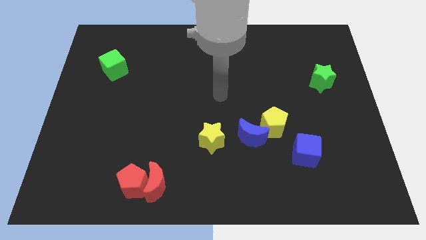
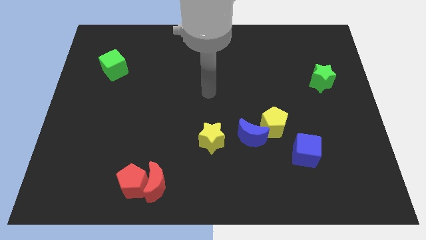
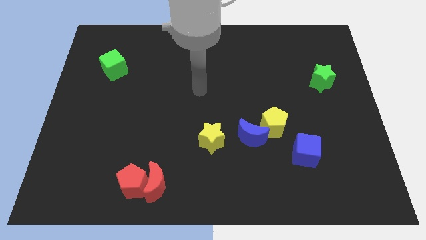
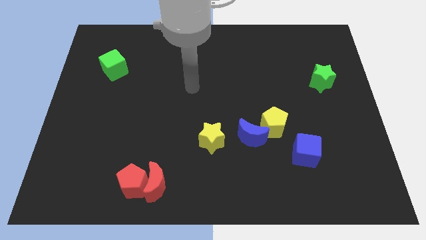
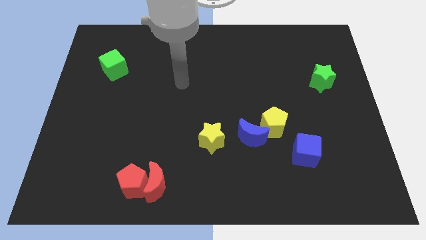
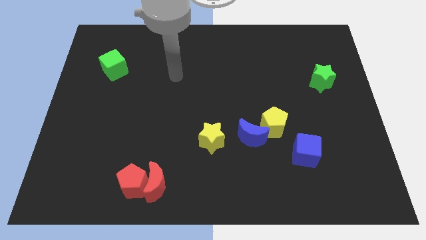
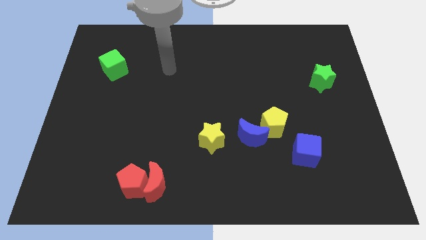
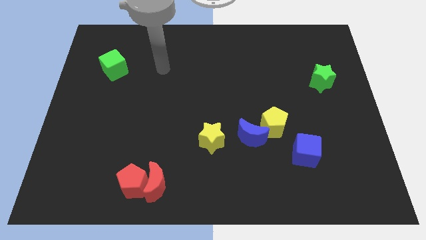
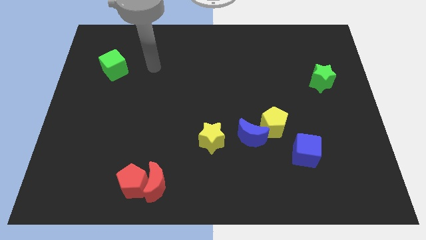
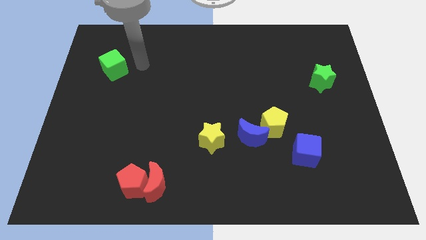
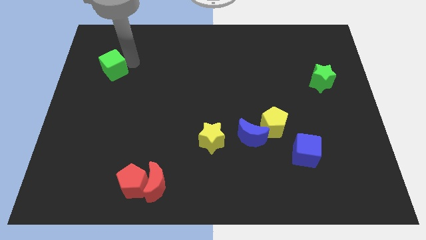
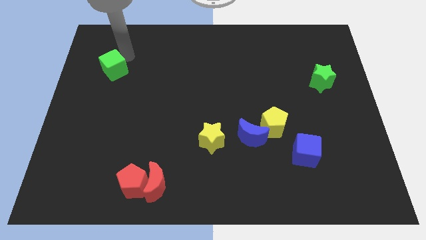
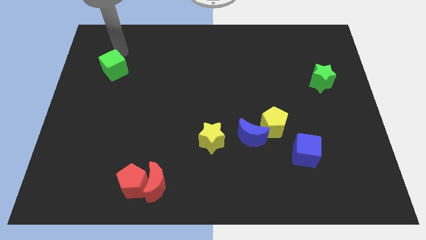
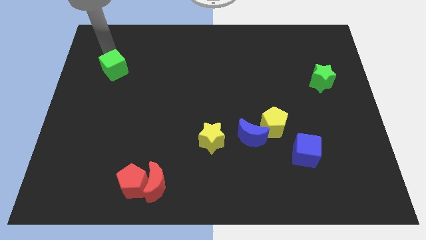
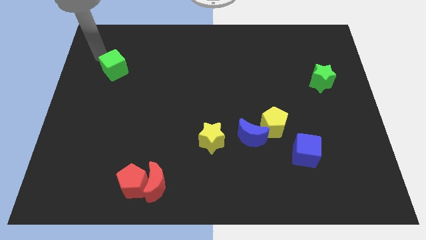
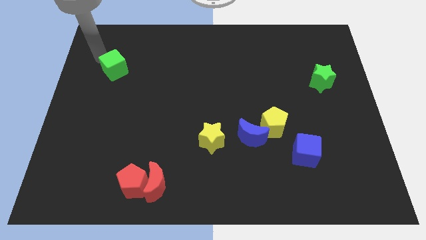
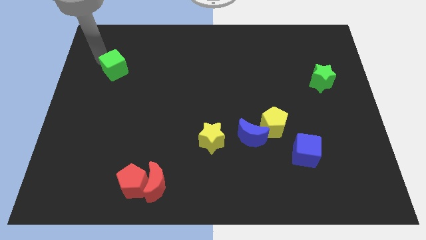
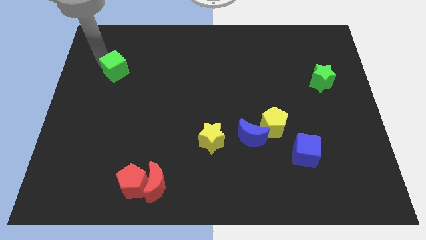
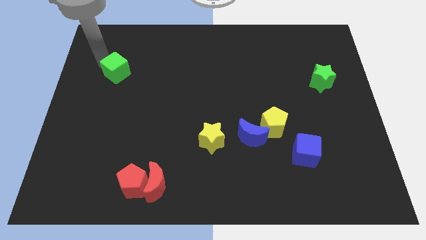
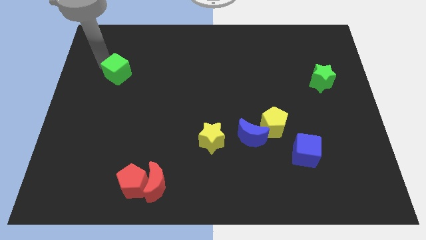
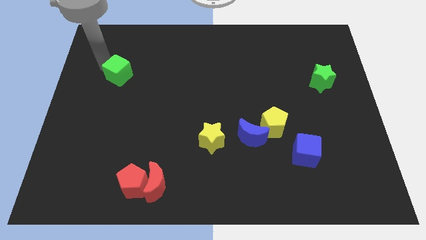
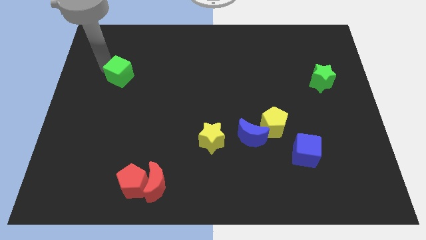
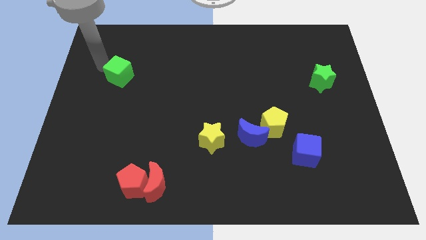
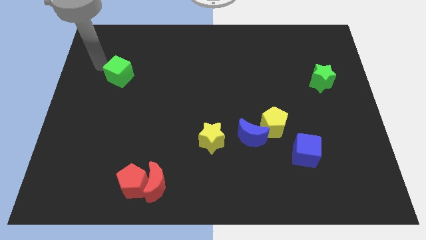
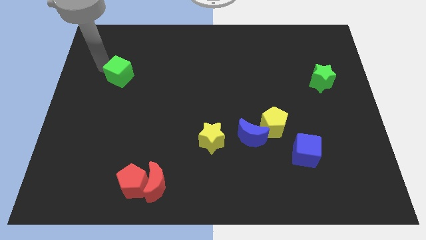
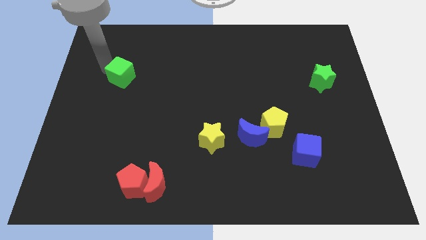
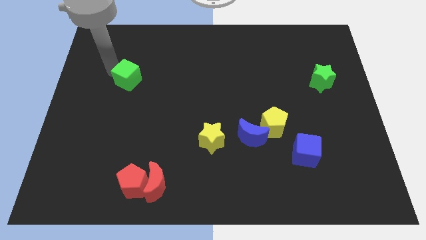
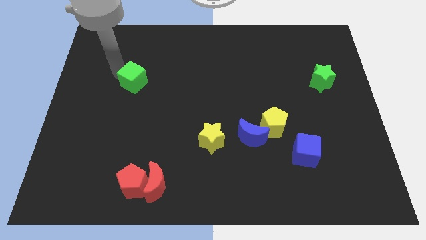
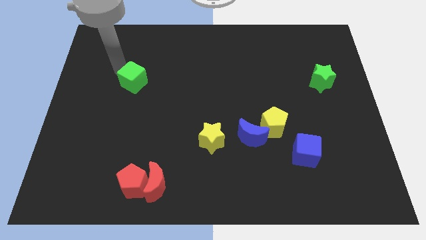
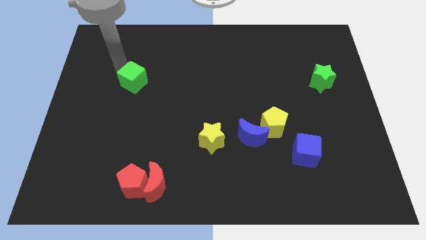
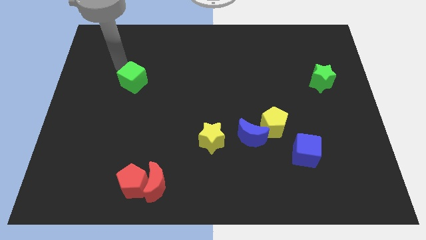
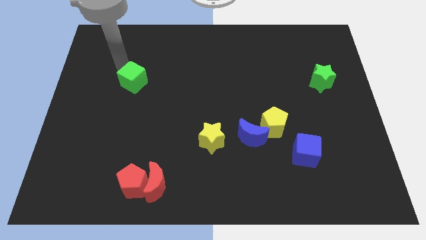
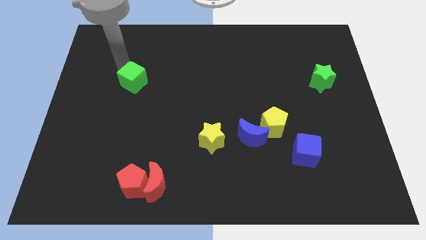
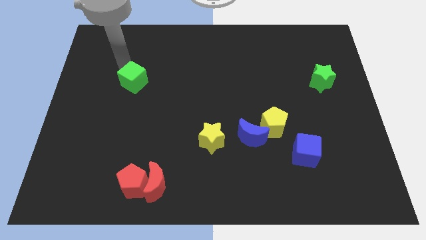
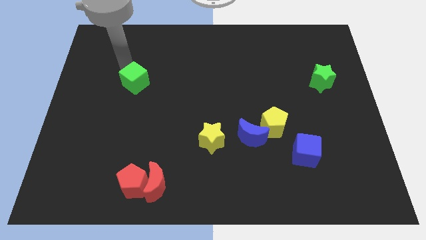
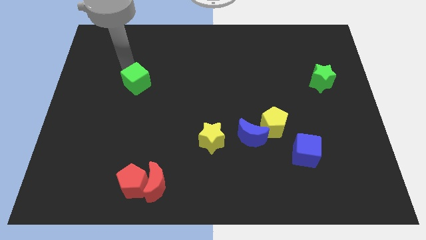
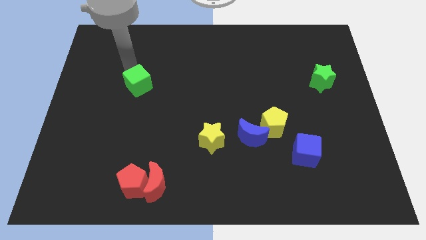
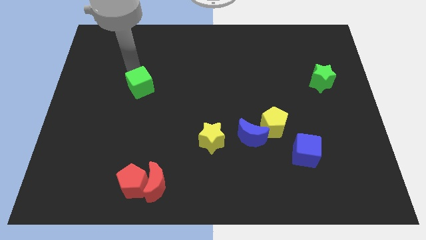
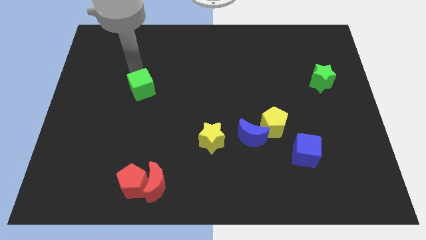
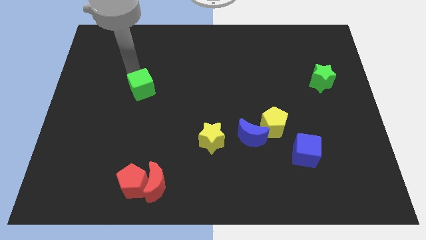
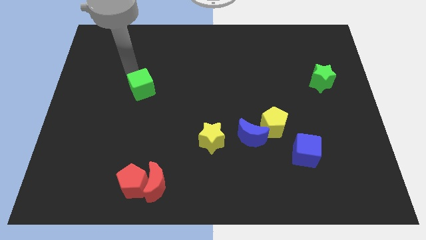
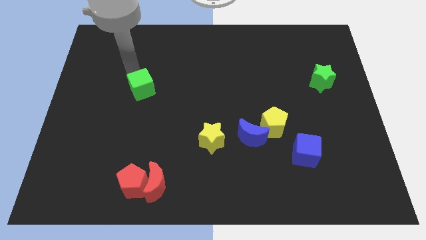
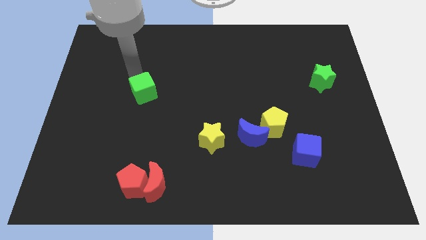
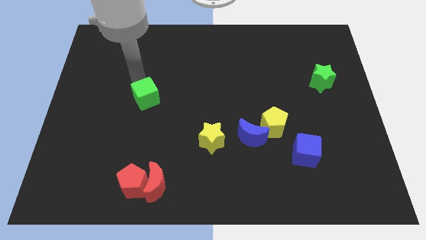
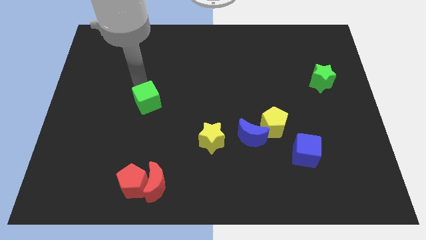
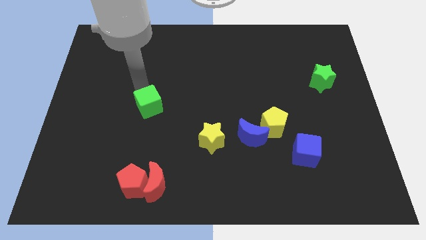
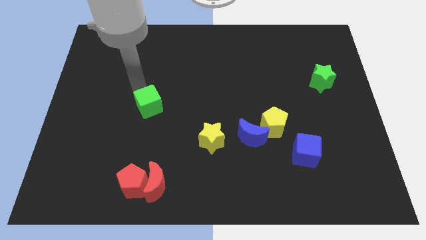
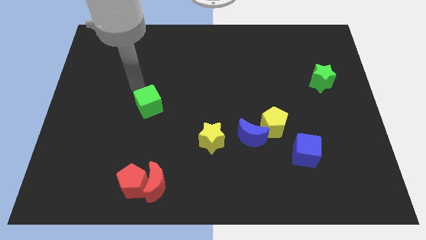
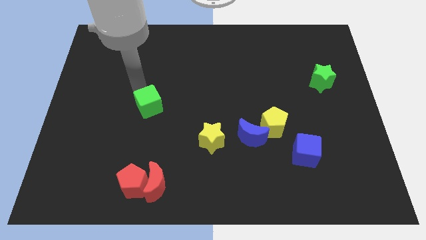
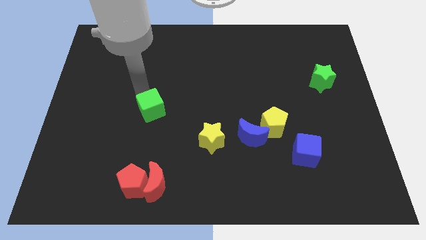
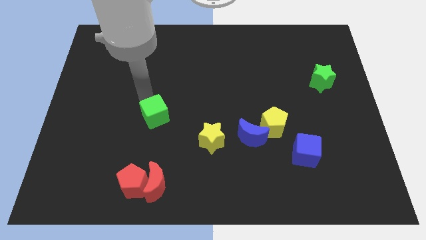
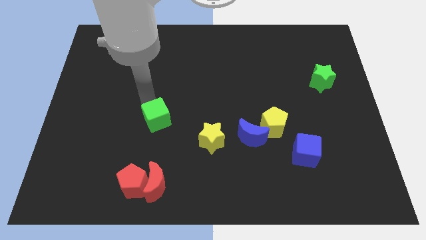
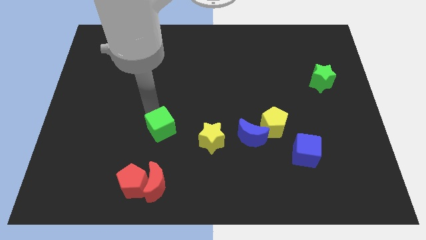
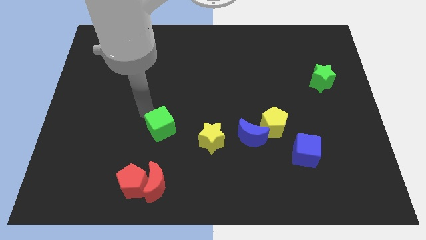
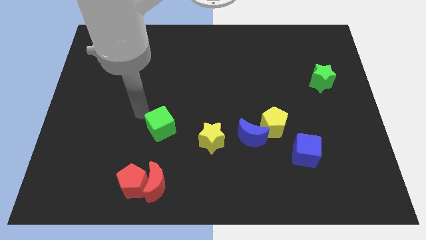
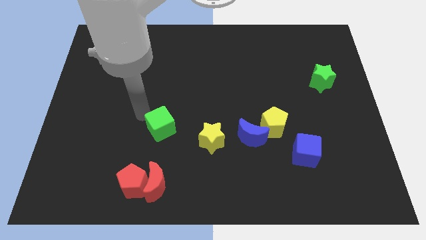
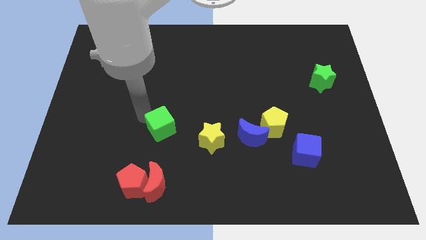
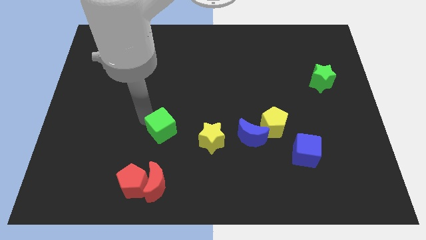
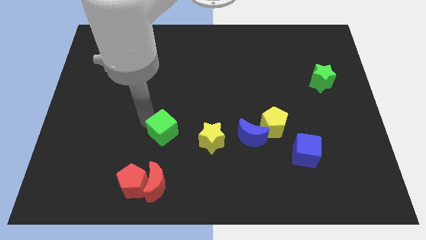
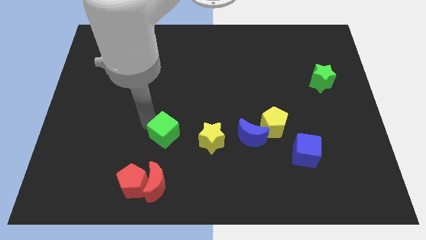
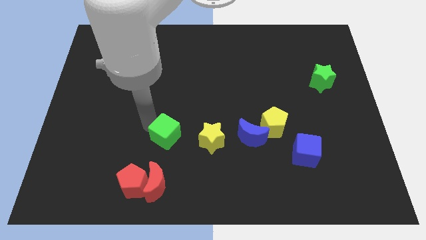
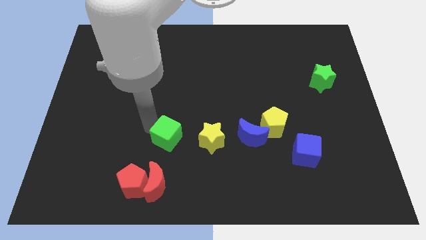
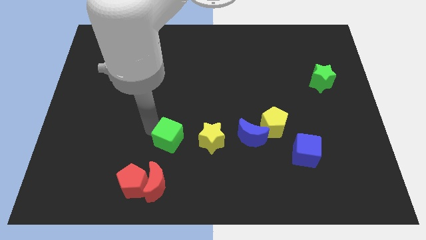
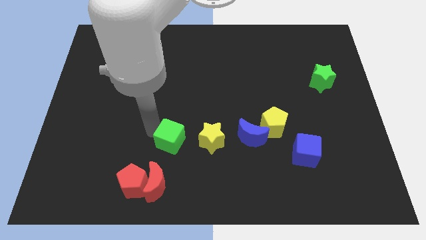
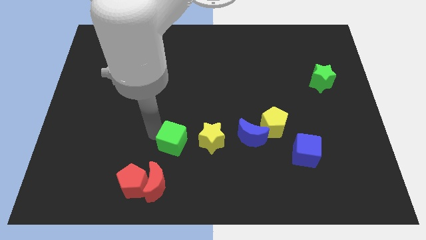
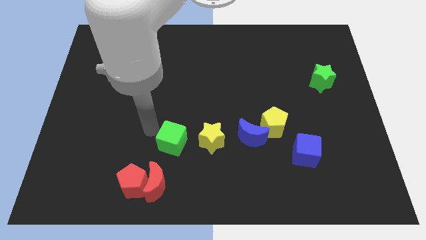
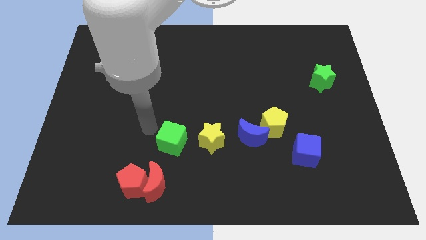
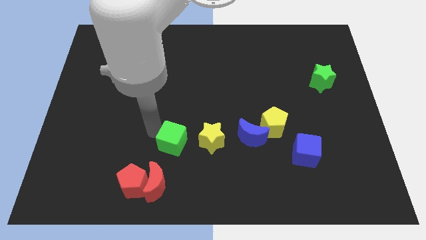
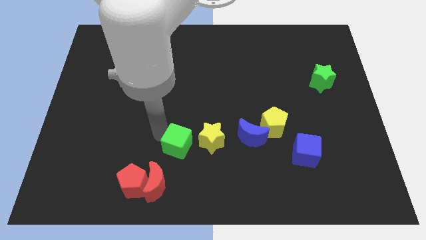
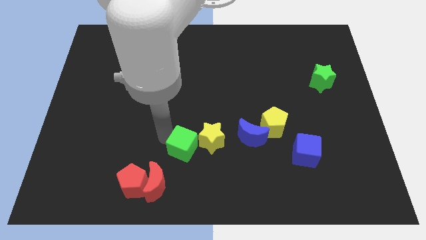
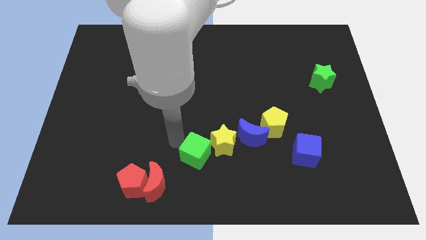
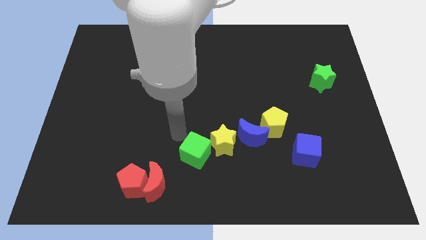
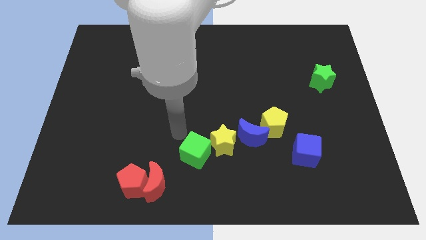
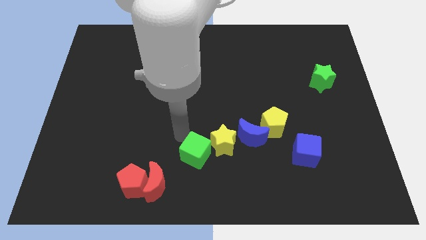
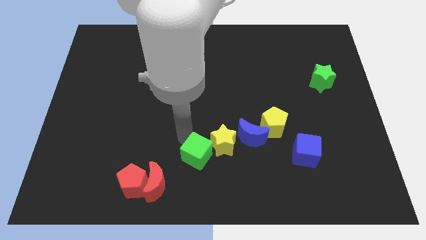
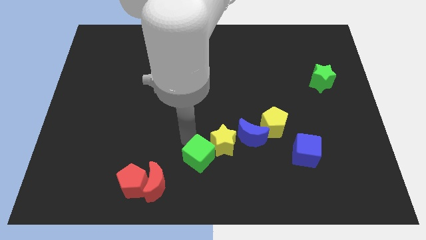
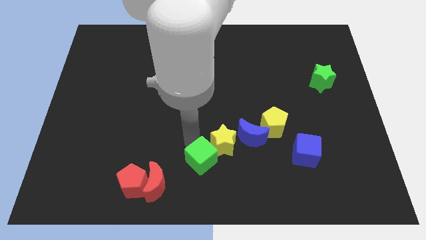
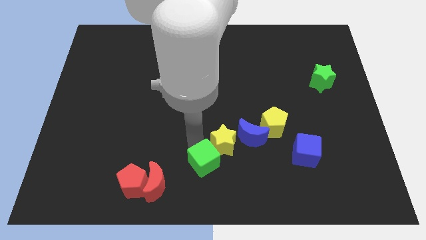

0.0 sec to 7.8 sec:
push the green cube to the bottom of the yellow star
